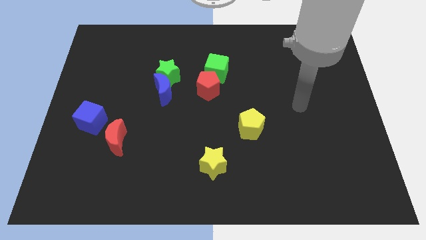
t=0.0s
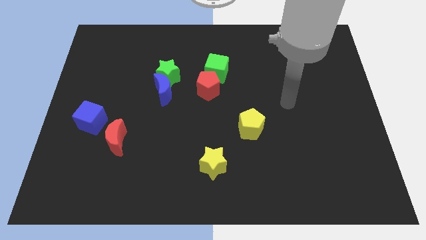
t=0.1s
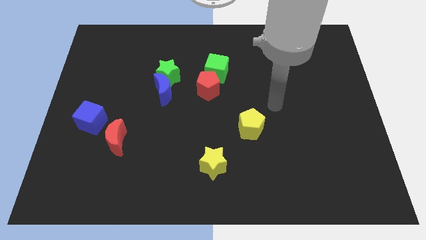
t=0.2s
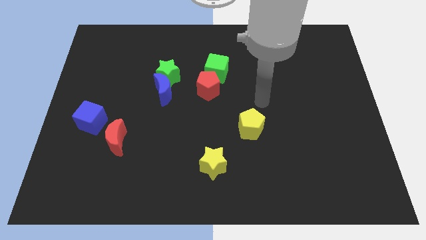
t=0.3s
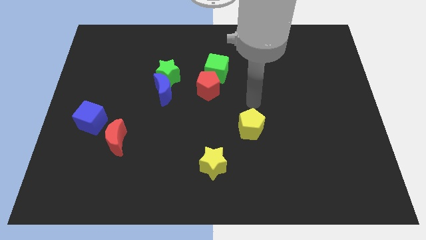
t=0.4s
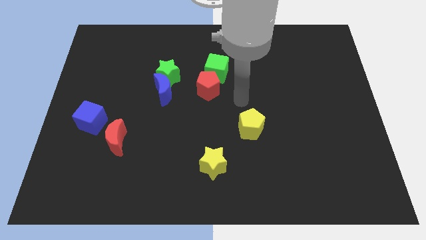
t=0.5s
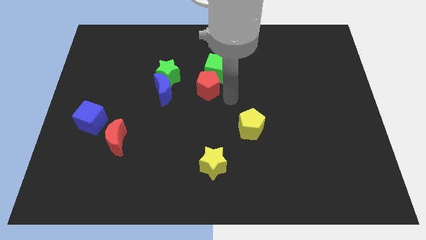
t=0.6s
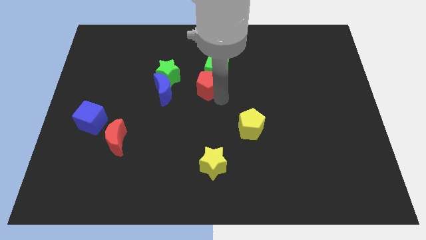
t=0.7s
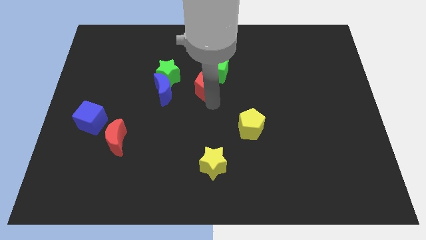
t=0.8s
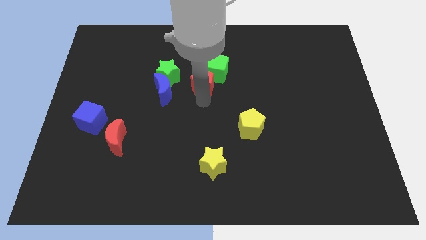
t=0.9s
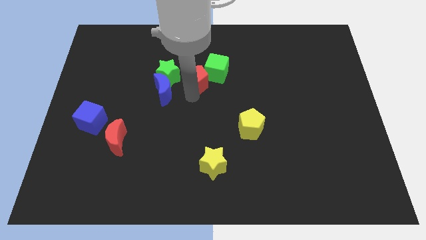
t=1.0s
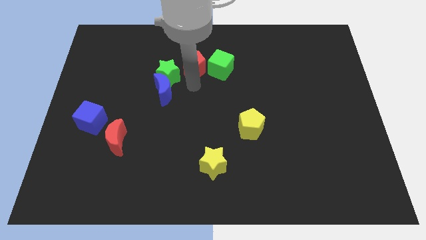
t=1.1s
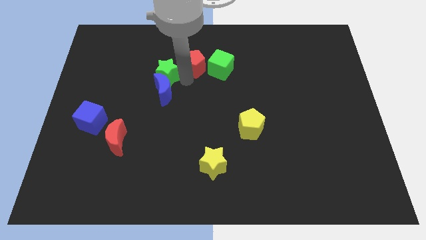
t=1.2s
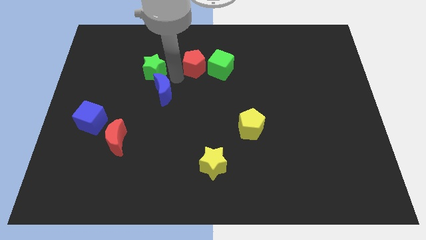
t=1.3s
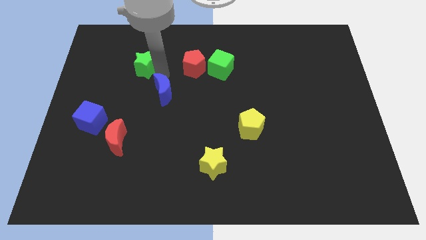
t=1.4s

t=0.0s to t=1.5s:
separate the blue moon from the green star

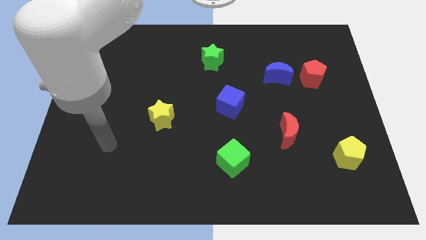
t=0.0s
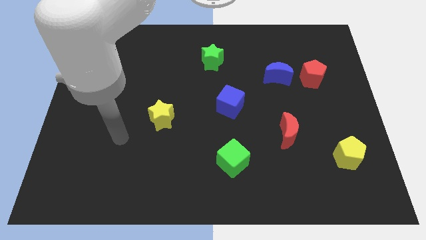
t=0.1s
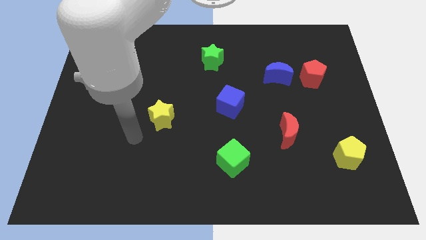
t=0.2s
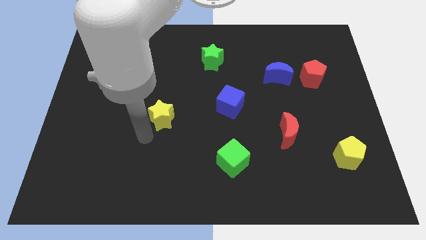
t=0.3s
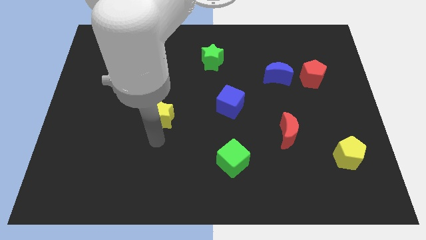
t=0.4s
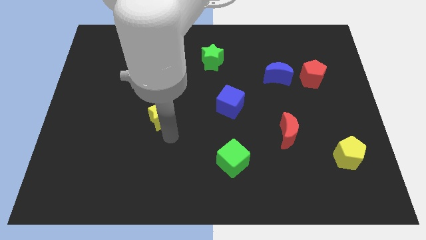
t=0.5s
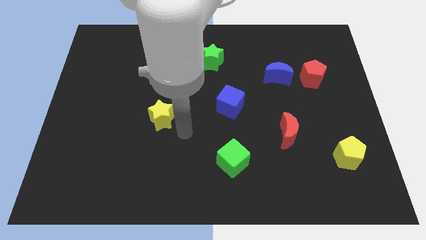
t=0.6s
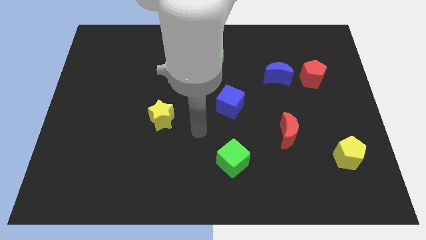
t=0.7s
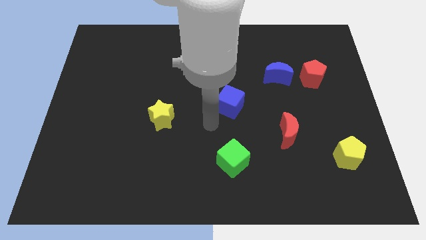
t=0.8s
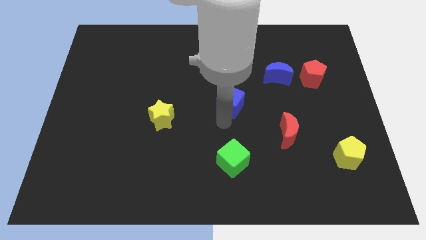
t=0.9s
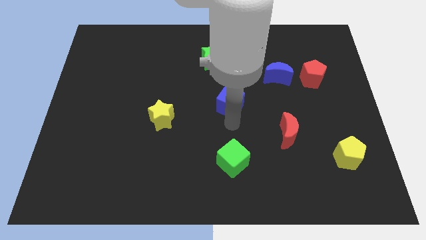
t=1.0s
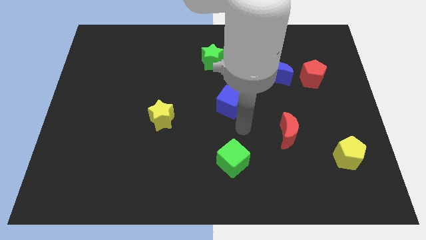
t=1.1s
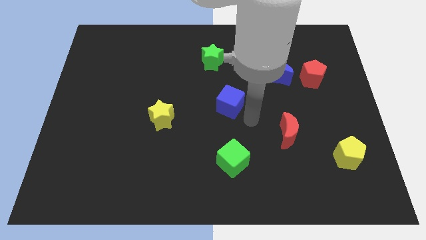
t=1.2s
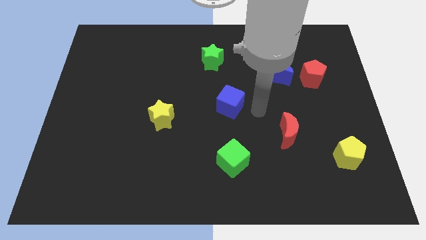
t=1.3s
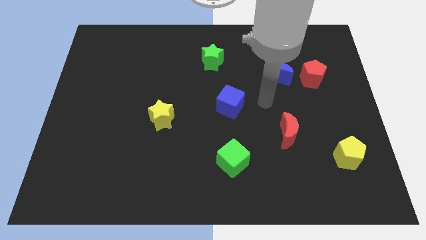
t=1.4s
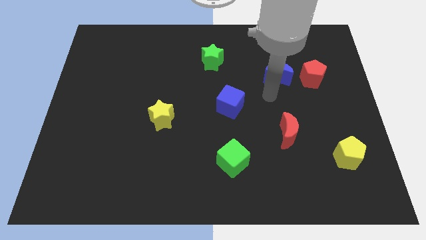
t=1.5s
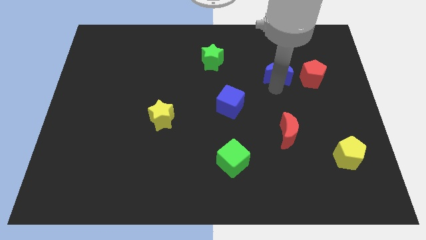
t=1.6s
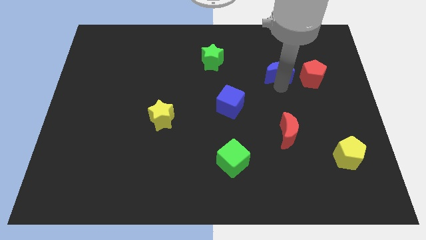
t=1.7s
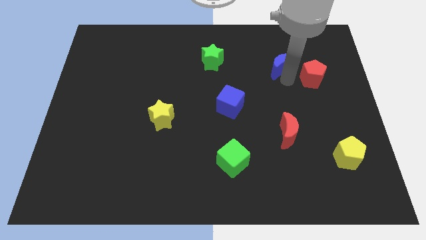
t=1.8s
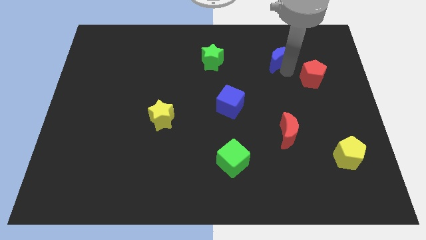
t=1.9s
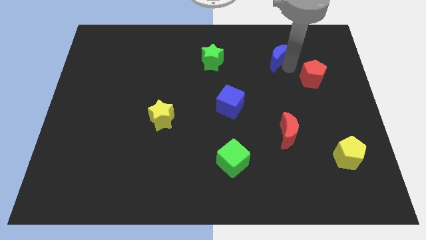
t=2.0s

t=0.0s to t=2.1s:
move the red pentagon away from the blue moon

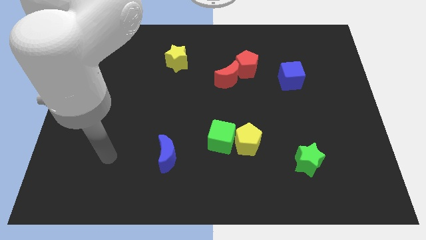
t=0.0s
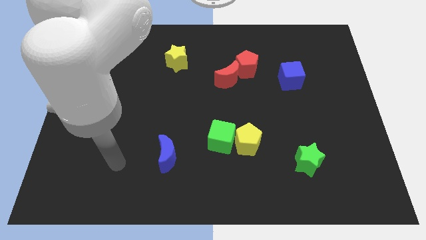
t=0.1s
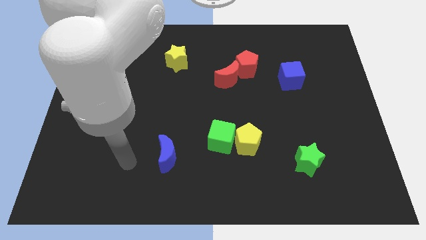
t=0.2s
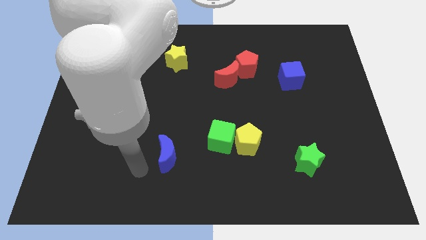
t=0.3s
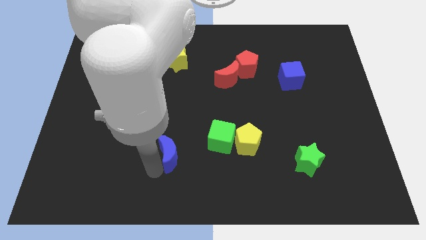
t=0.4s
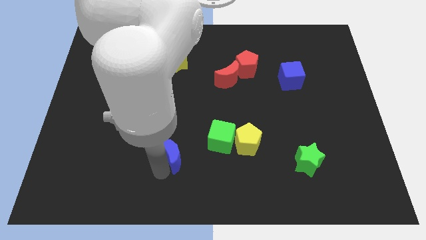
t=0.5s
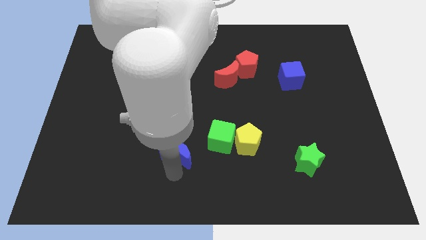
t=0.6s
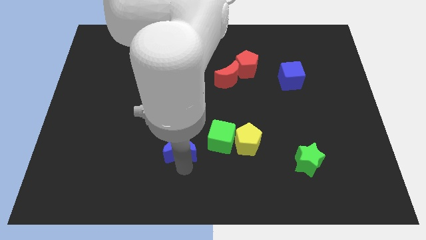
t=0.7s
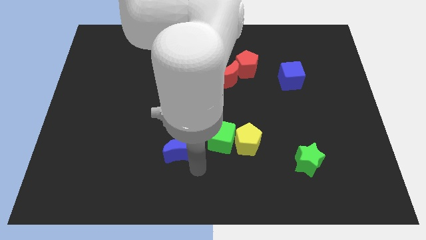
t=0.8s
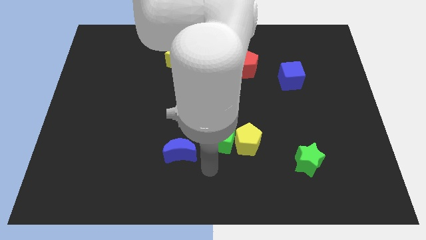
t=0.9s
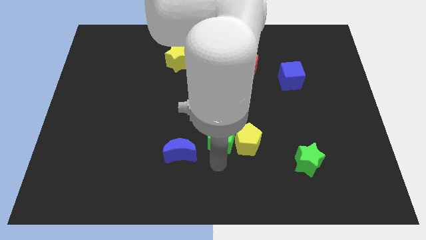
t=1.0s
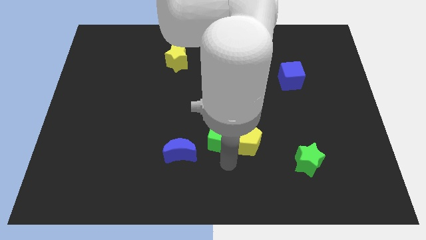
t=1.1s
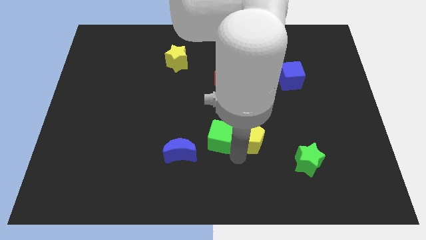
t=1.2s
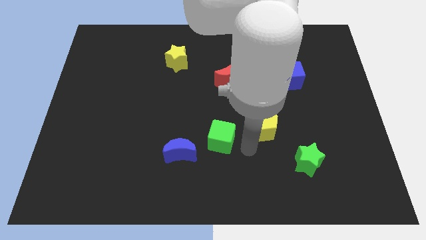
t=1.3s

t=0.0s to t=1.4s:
pull the green cube apart from the yellow pentagon

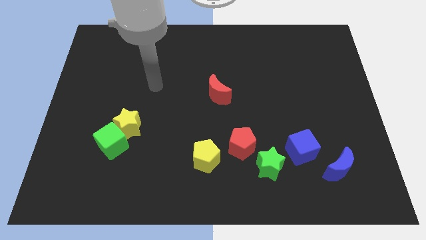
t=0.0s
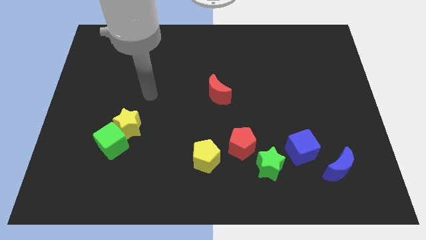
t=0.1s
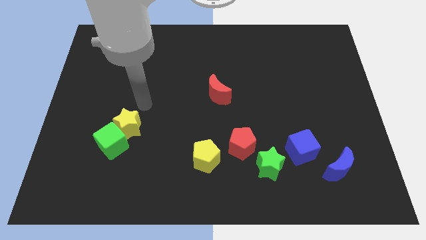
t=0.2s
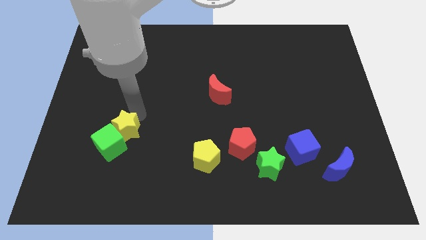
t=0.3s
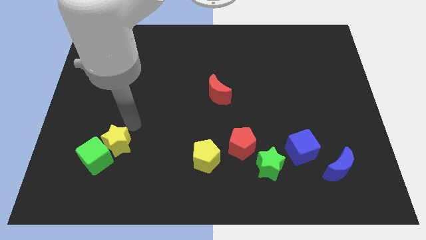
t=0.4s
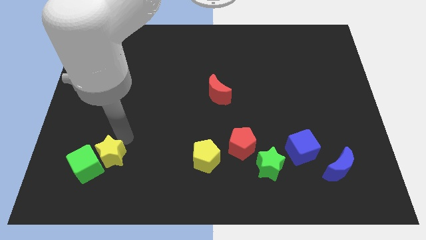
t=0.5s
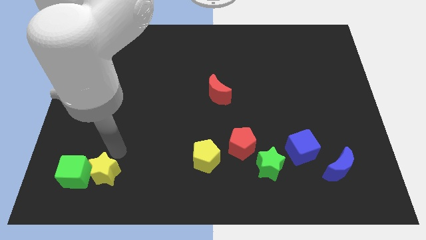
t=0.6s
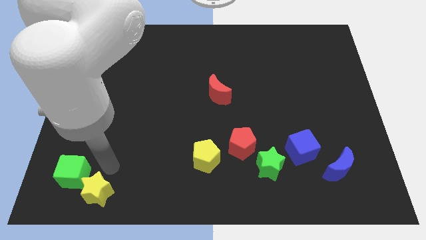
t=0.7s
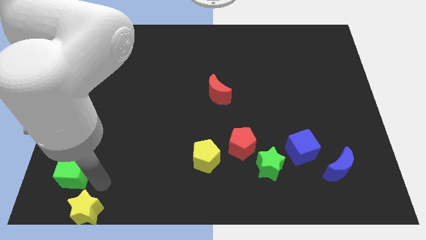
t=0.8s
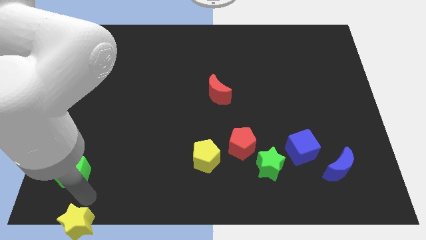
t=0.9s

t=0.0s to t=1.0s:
separate the green cube from the yellow star

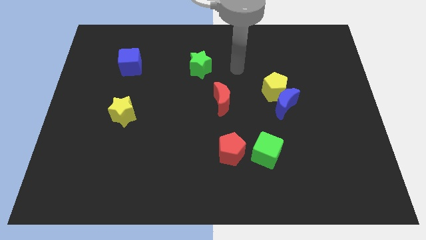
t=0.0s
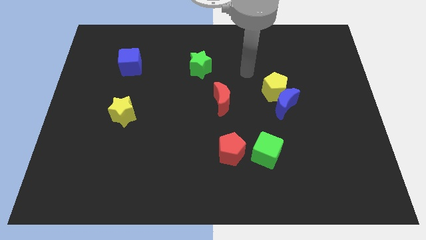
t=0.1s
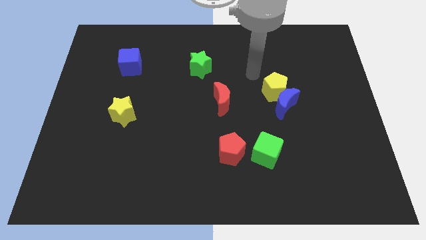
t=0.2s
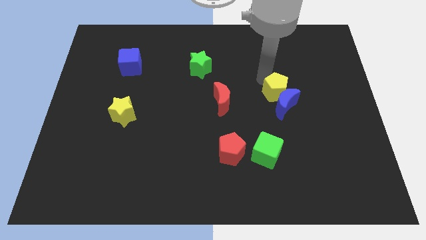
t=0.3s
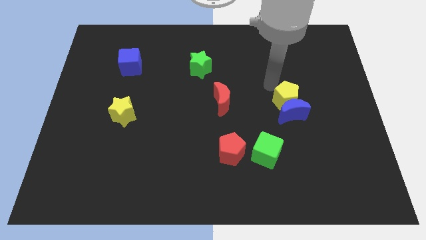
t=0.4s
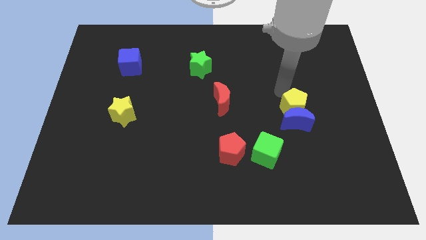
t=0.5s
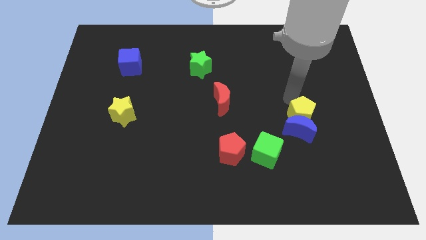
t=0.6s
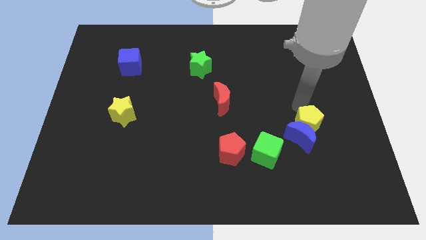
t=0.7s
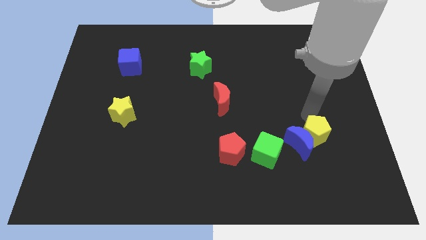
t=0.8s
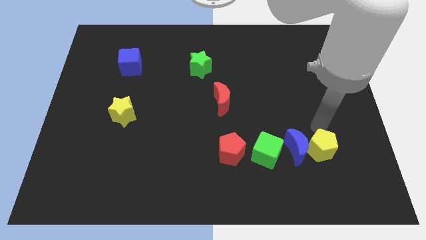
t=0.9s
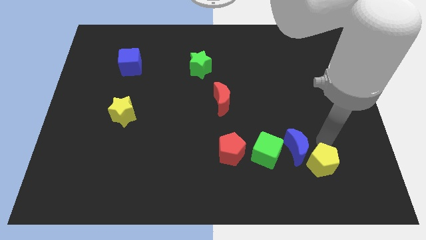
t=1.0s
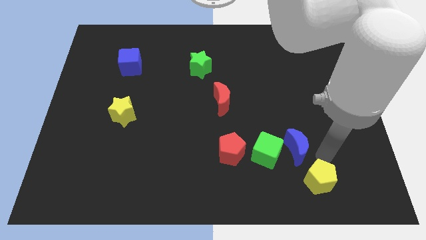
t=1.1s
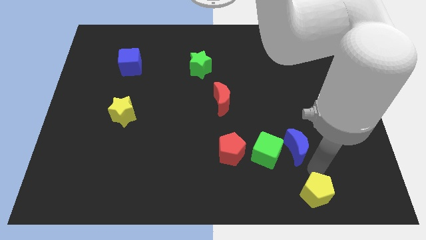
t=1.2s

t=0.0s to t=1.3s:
move the blue moon away from the yellow pentagon

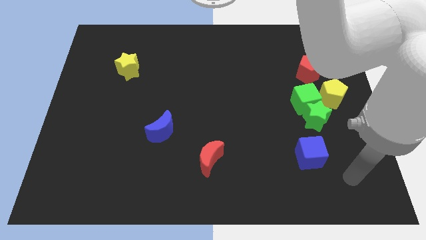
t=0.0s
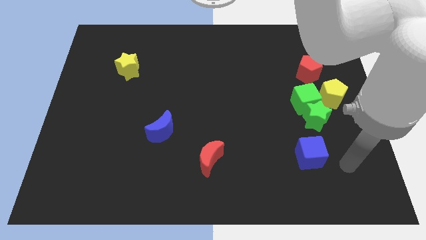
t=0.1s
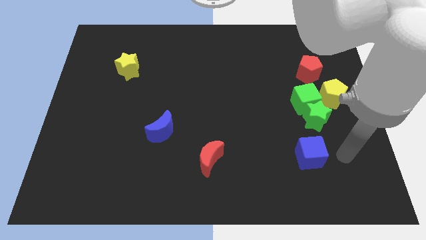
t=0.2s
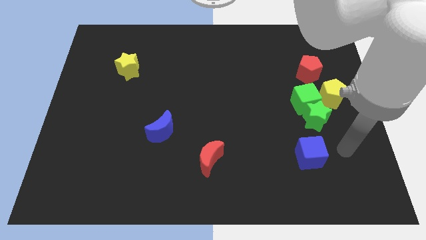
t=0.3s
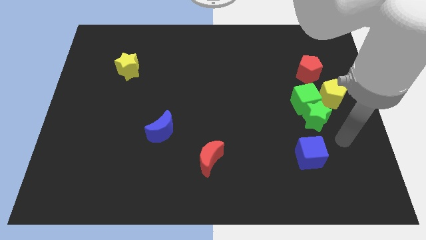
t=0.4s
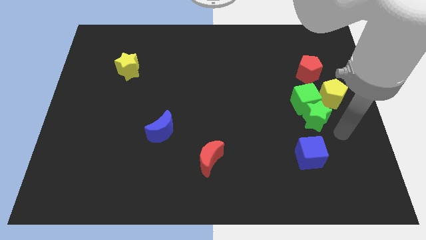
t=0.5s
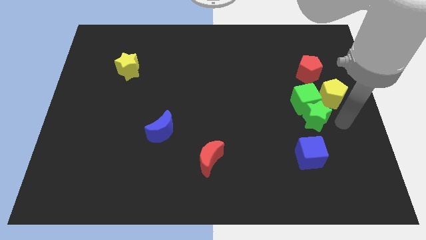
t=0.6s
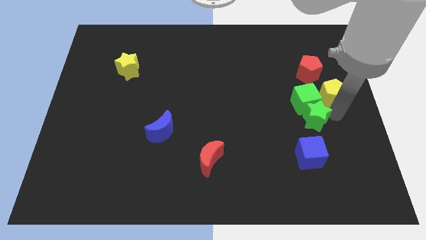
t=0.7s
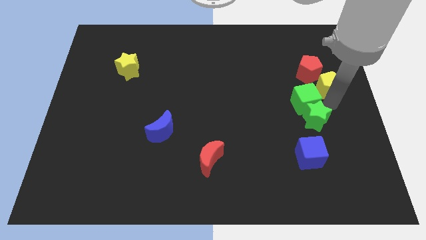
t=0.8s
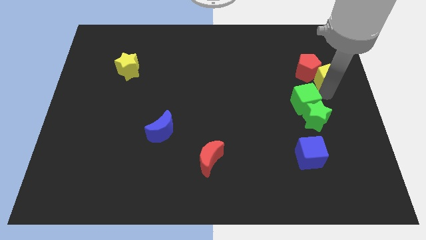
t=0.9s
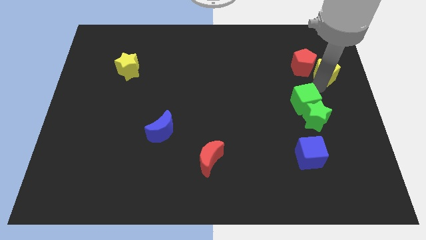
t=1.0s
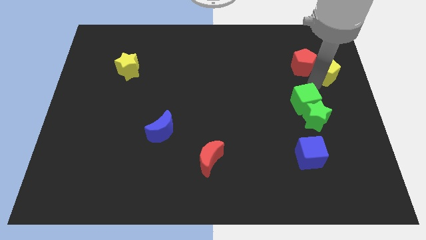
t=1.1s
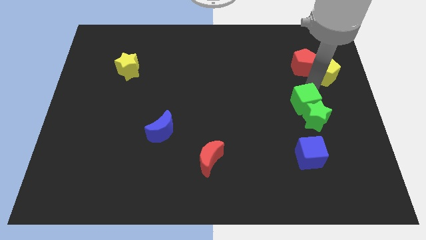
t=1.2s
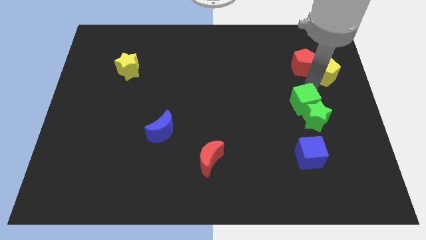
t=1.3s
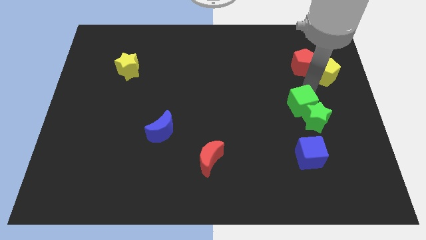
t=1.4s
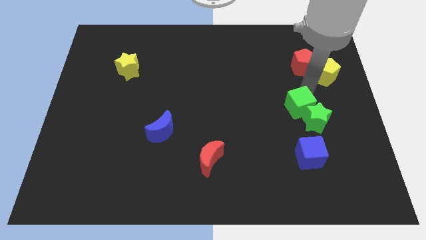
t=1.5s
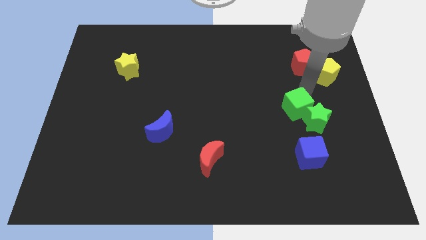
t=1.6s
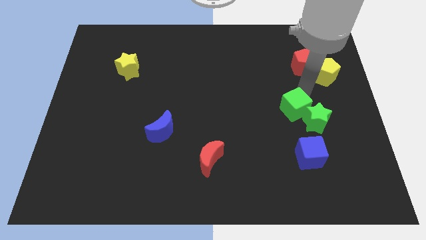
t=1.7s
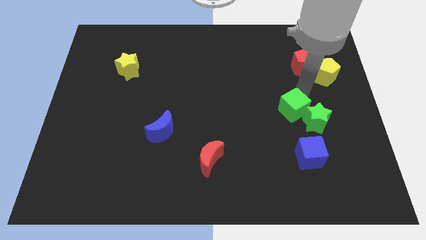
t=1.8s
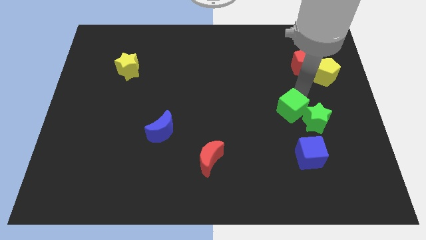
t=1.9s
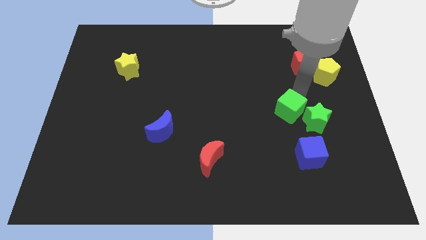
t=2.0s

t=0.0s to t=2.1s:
separate the green cube from the green star, yellow pentagon, and red pentagon
